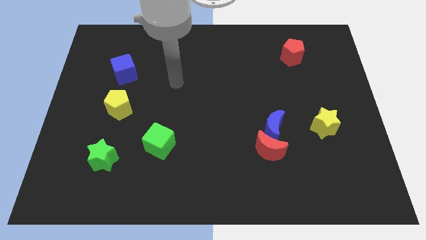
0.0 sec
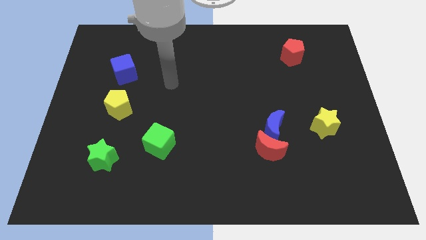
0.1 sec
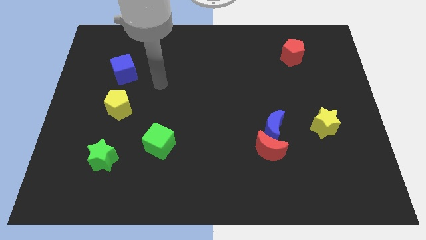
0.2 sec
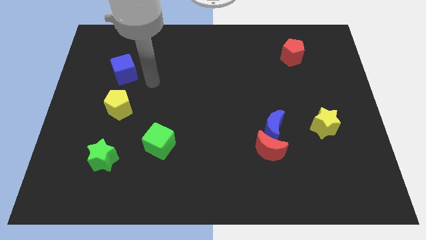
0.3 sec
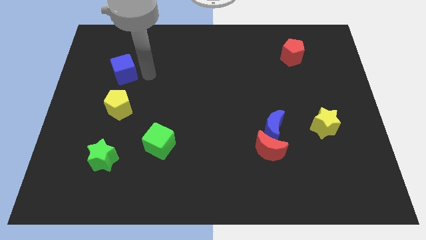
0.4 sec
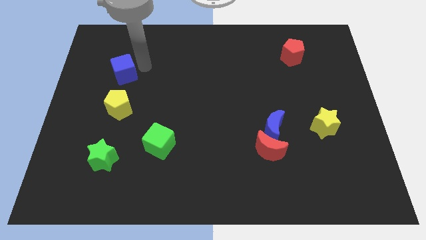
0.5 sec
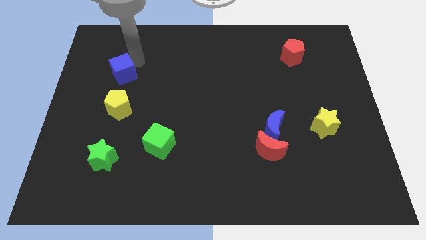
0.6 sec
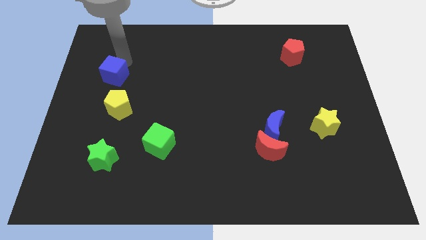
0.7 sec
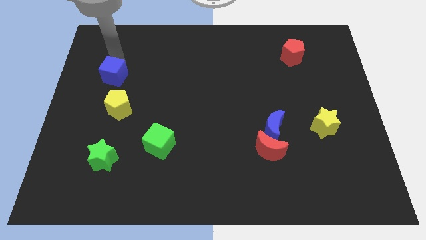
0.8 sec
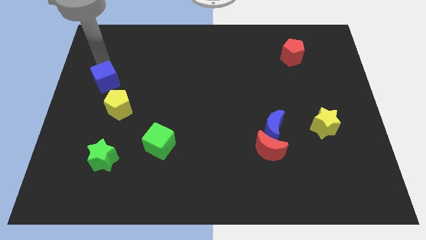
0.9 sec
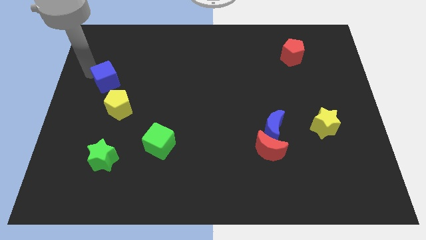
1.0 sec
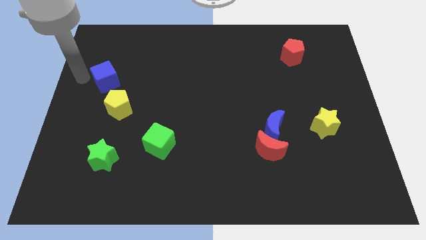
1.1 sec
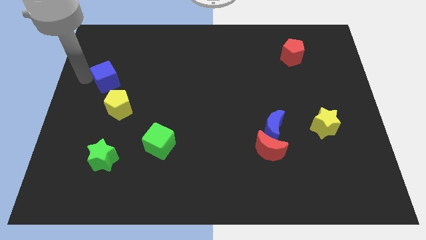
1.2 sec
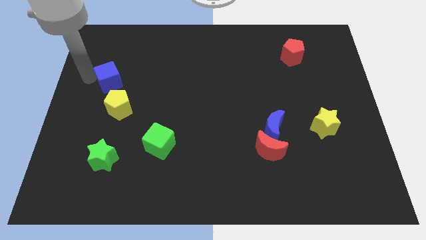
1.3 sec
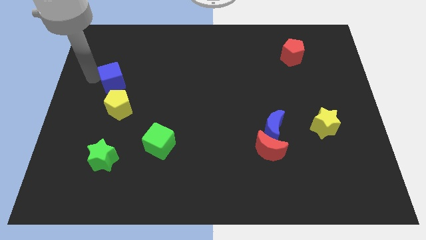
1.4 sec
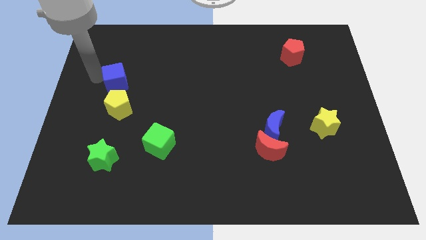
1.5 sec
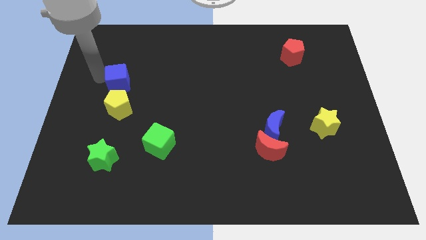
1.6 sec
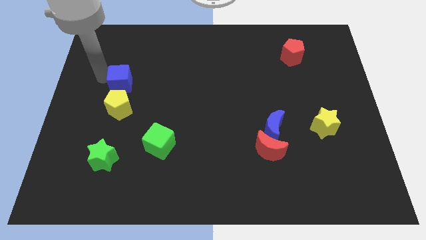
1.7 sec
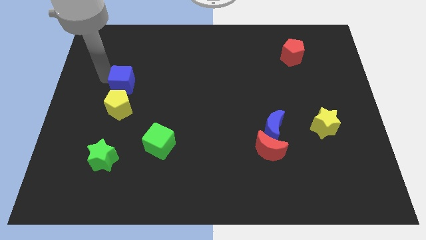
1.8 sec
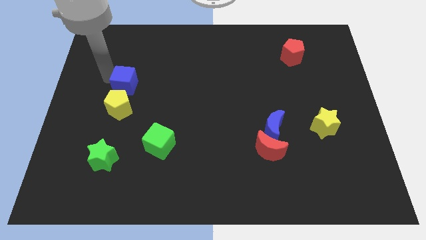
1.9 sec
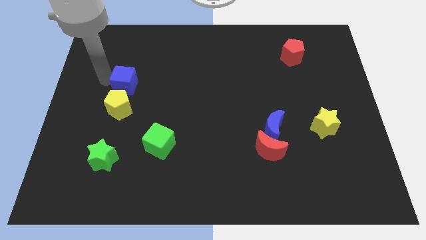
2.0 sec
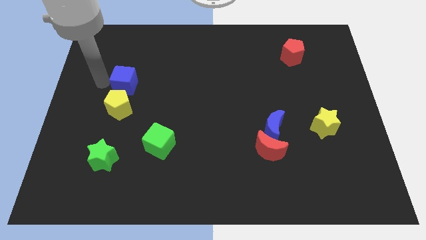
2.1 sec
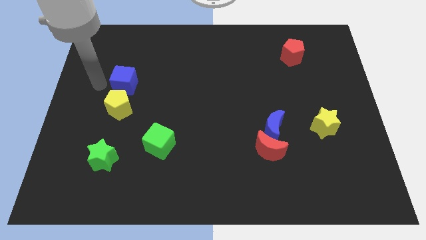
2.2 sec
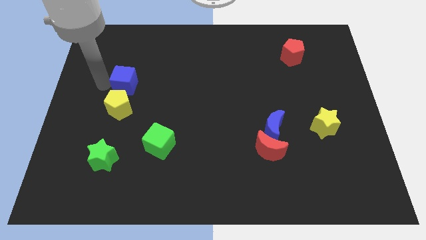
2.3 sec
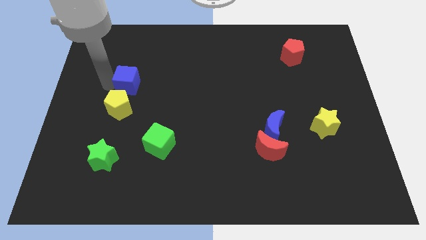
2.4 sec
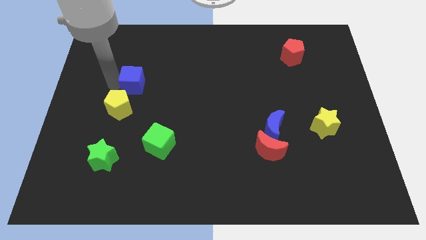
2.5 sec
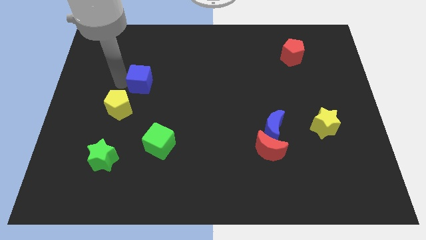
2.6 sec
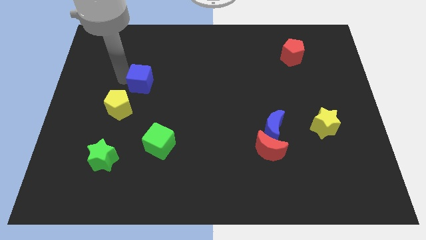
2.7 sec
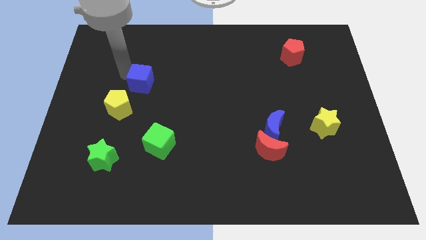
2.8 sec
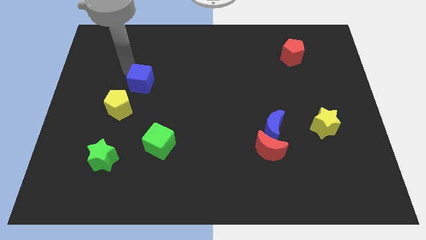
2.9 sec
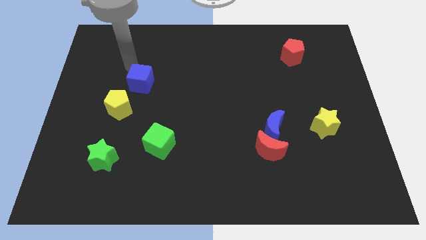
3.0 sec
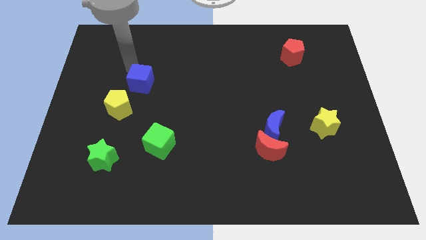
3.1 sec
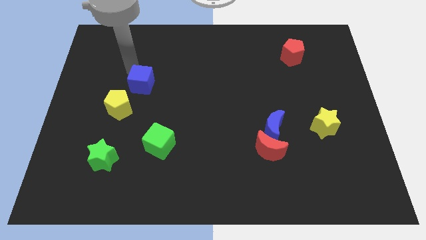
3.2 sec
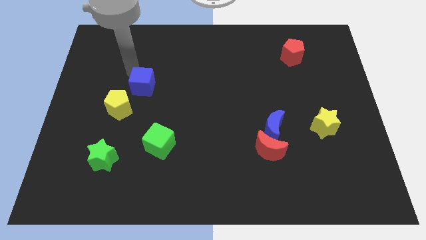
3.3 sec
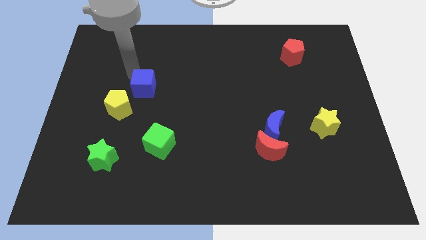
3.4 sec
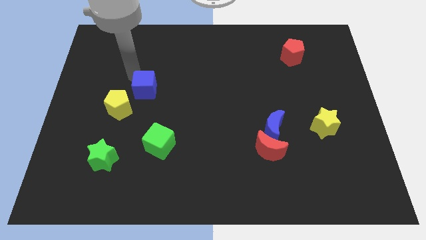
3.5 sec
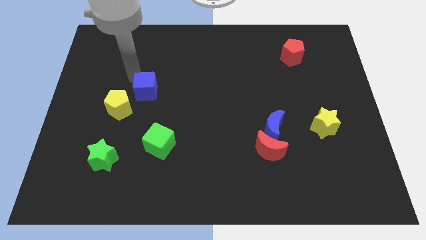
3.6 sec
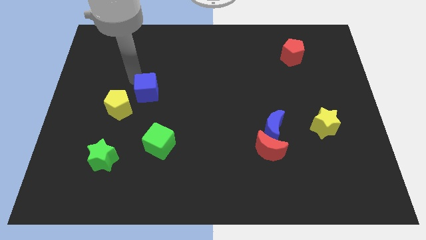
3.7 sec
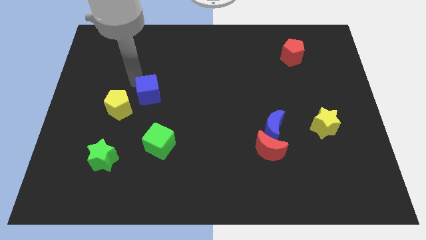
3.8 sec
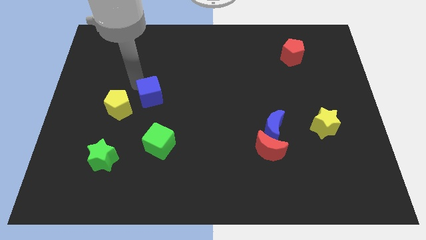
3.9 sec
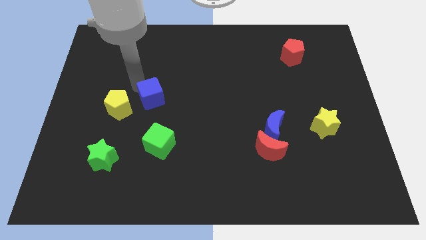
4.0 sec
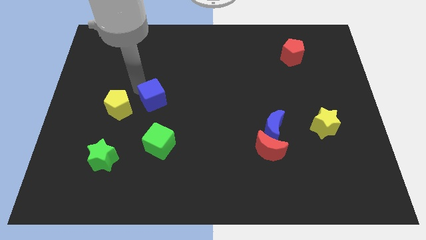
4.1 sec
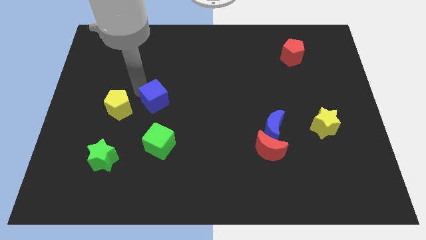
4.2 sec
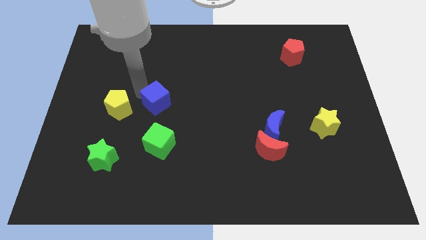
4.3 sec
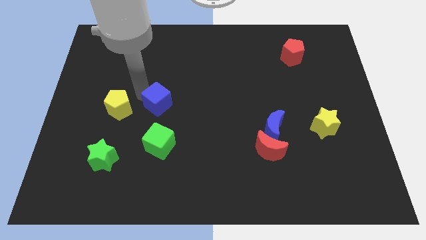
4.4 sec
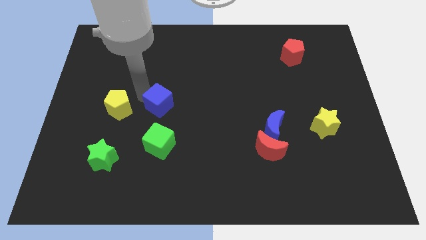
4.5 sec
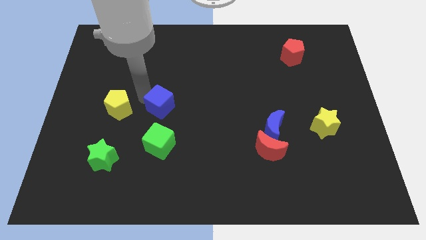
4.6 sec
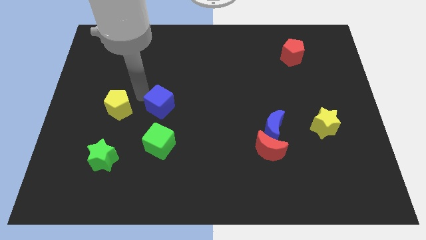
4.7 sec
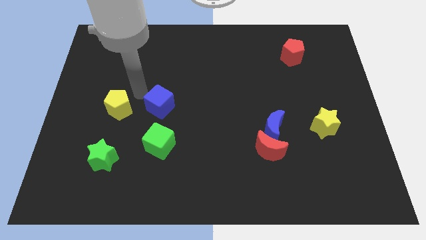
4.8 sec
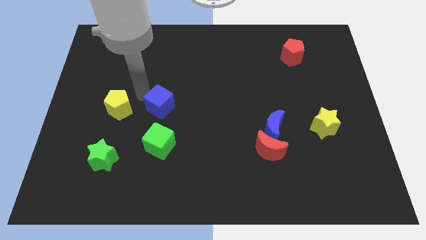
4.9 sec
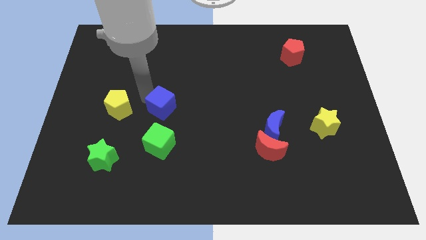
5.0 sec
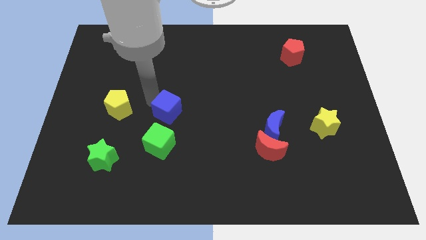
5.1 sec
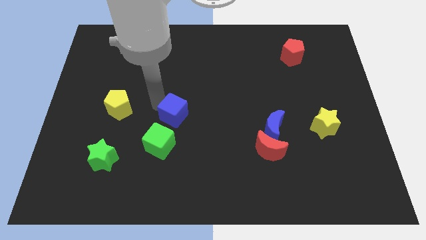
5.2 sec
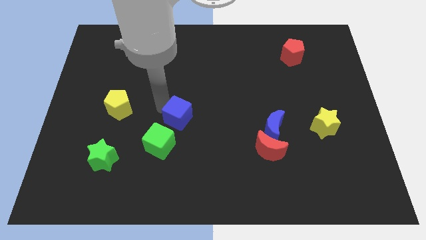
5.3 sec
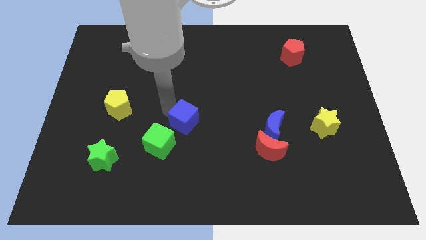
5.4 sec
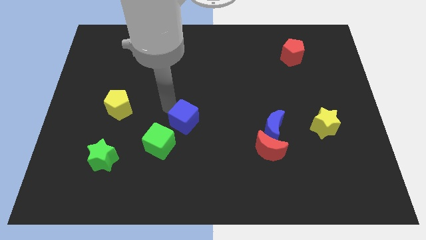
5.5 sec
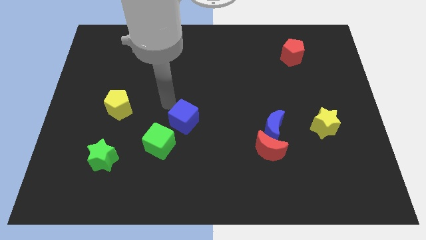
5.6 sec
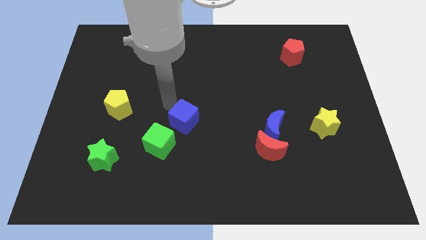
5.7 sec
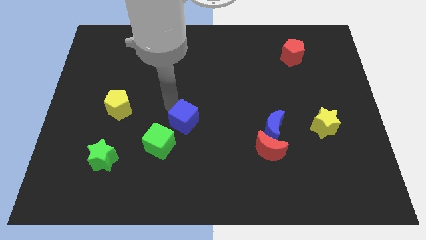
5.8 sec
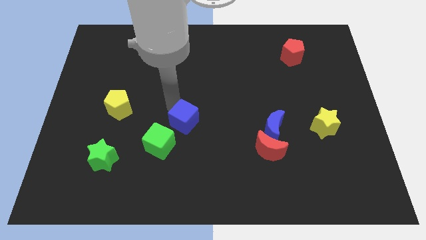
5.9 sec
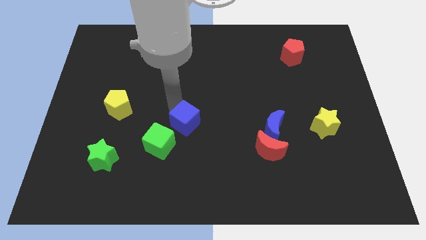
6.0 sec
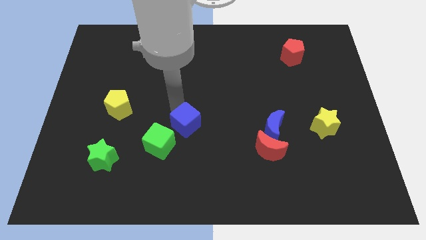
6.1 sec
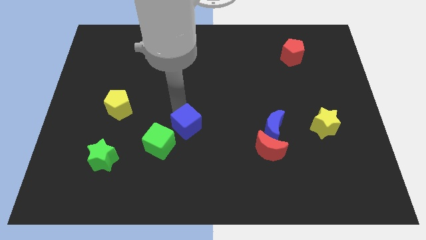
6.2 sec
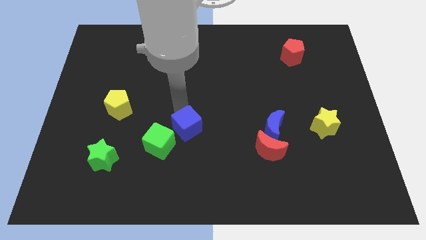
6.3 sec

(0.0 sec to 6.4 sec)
push the blue cube to the right side of the green cube

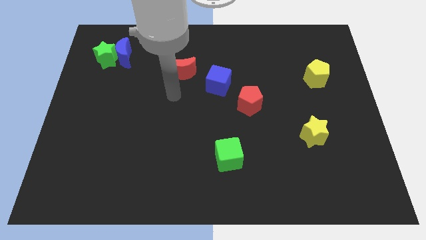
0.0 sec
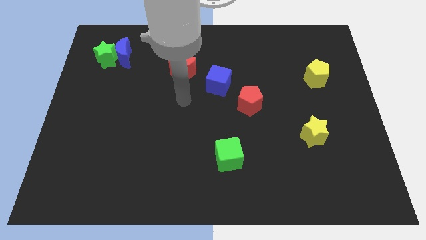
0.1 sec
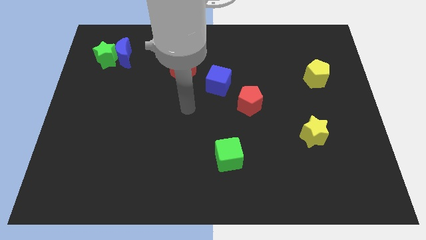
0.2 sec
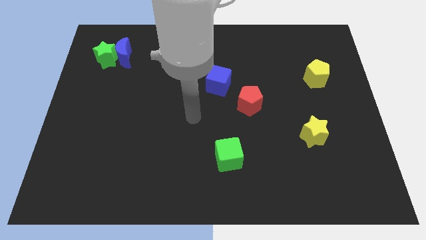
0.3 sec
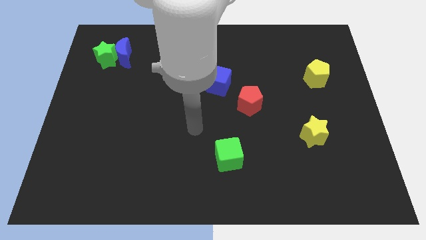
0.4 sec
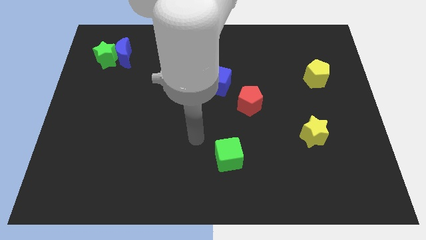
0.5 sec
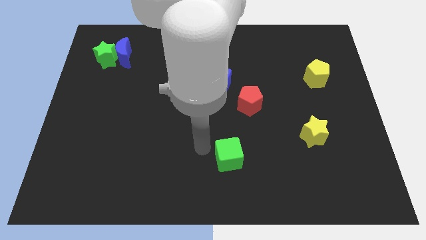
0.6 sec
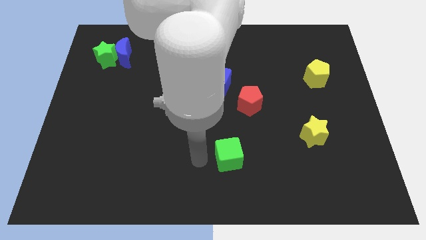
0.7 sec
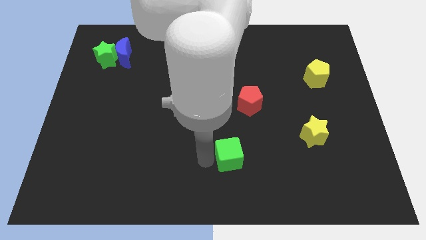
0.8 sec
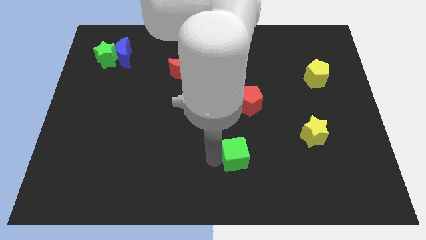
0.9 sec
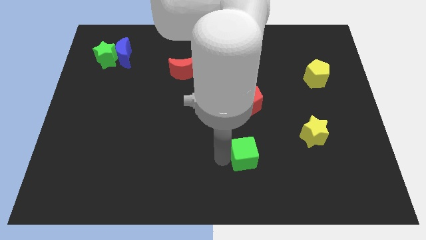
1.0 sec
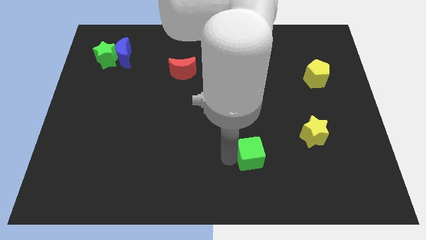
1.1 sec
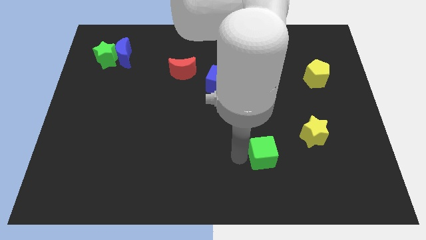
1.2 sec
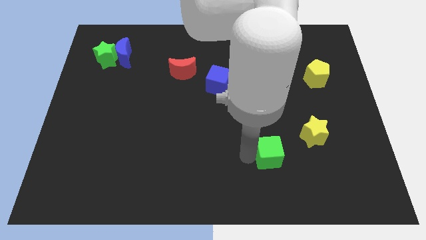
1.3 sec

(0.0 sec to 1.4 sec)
push the green cube to the bottom left of the yellow star

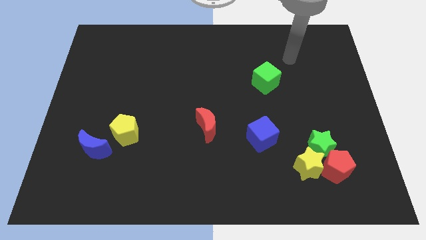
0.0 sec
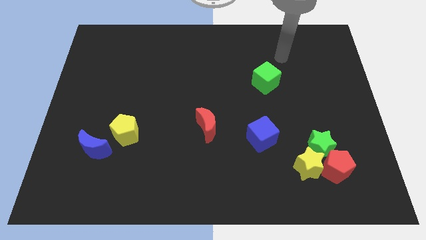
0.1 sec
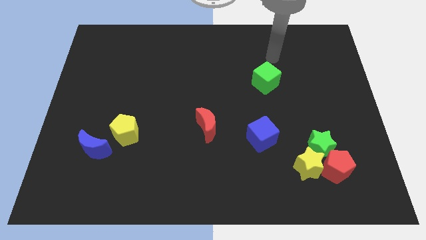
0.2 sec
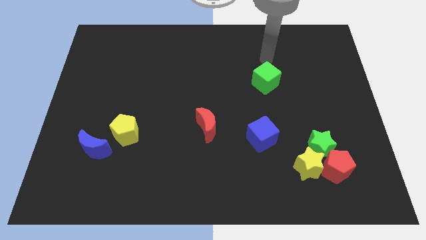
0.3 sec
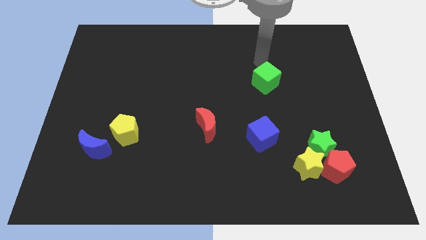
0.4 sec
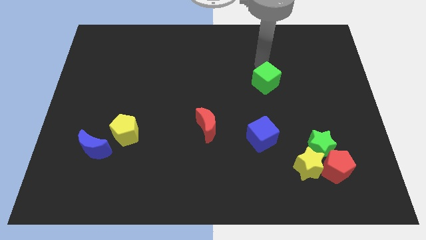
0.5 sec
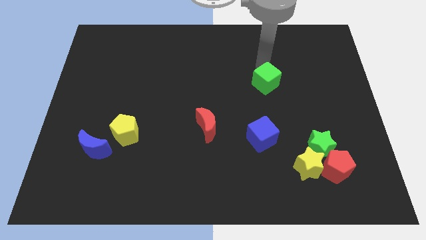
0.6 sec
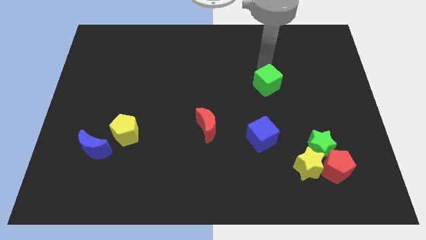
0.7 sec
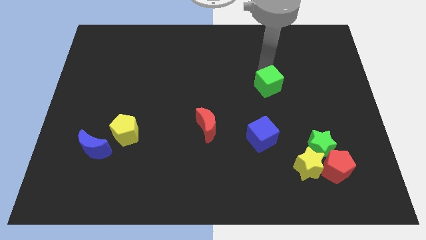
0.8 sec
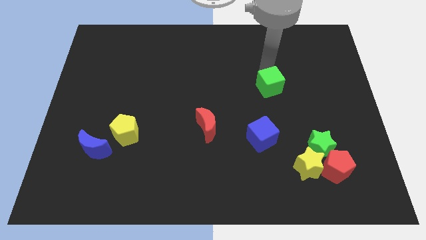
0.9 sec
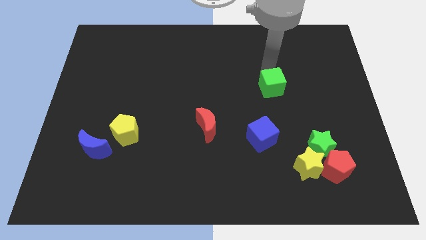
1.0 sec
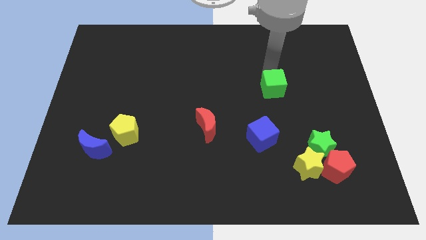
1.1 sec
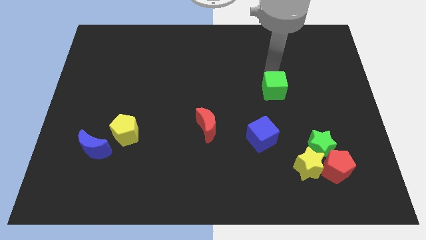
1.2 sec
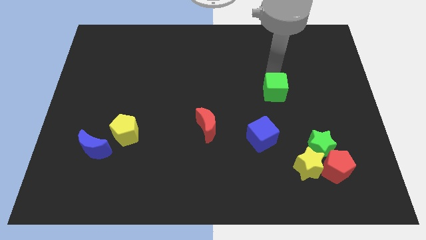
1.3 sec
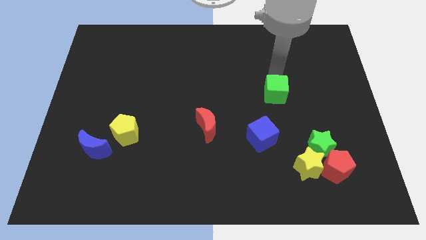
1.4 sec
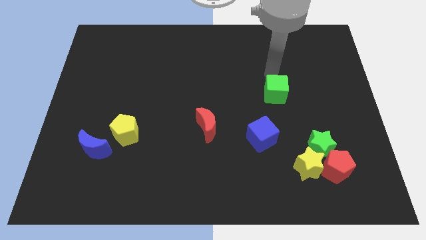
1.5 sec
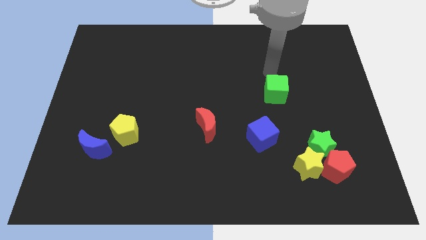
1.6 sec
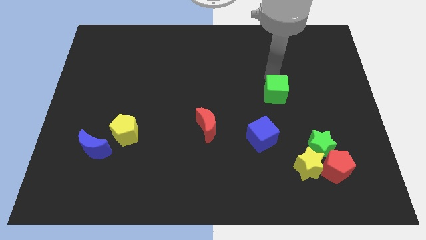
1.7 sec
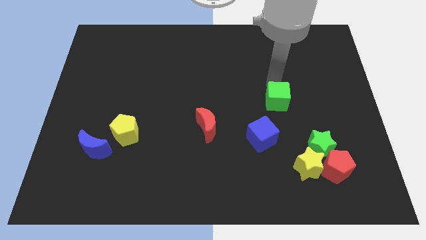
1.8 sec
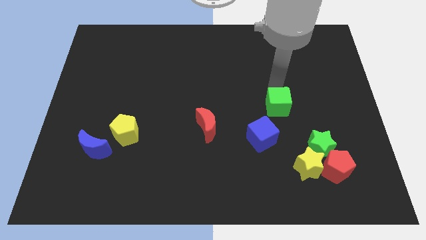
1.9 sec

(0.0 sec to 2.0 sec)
move the green cube to the top right side of the blue cube
